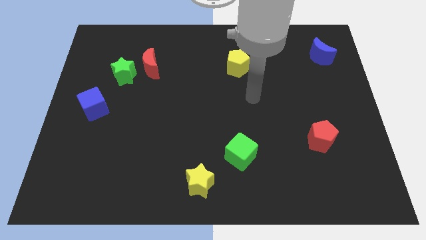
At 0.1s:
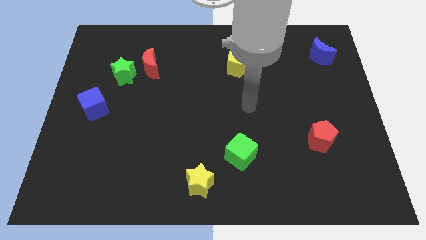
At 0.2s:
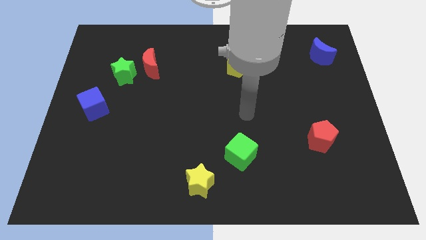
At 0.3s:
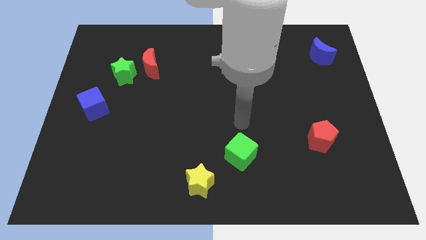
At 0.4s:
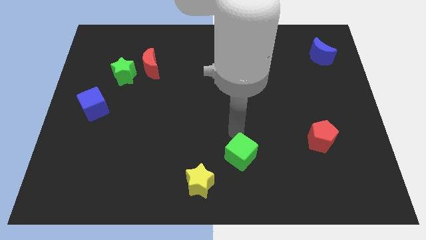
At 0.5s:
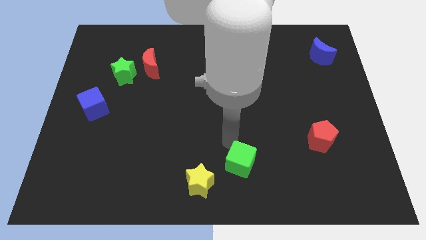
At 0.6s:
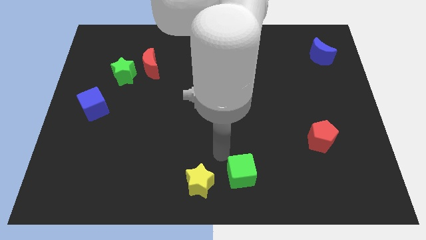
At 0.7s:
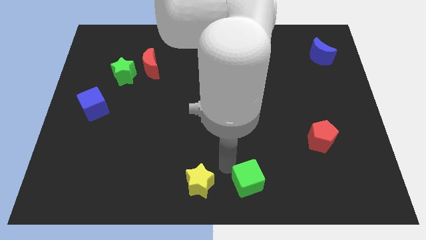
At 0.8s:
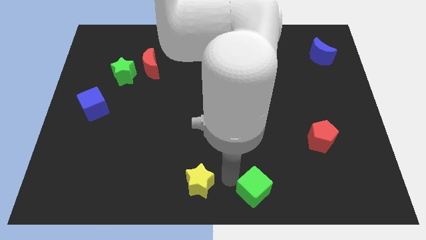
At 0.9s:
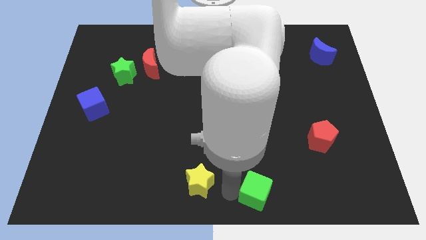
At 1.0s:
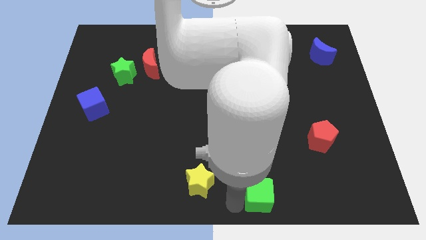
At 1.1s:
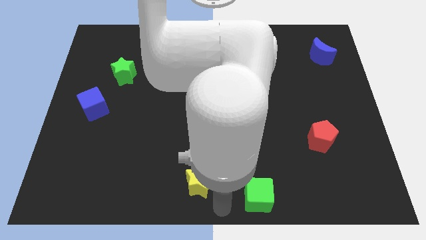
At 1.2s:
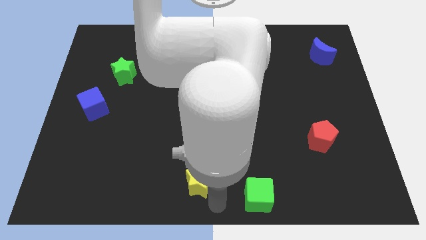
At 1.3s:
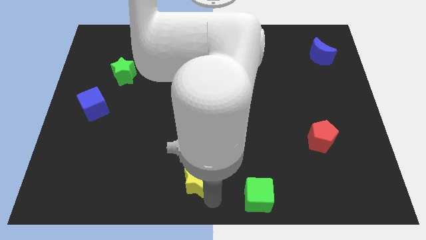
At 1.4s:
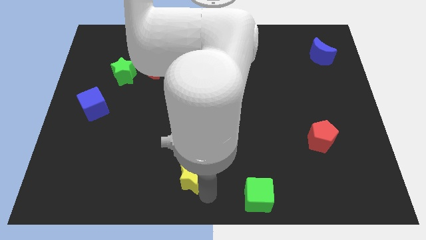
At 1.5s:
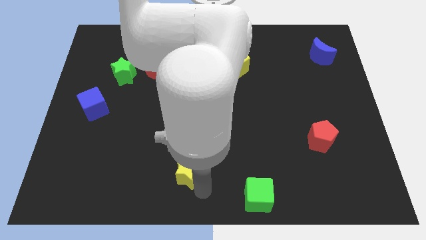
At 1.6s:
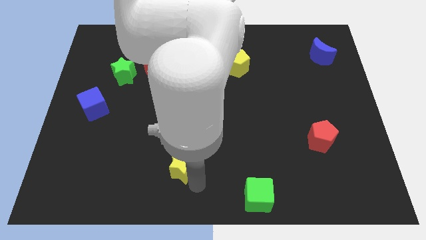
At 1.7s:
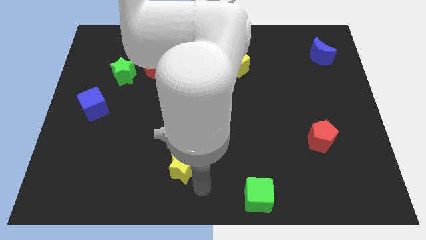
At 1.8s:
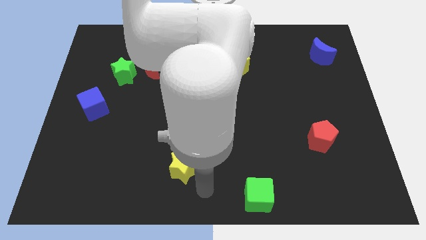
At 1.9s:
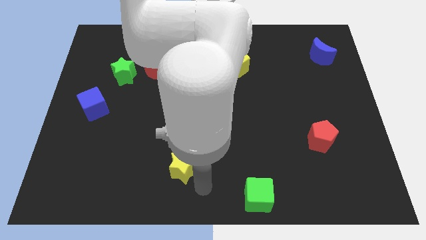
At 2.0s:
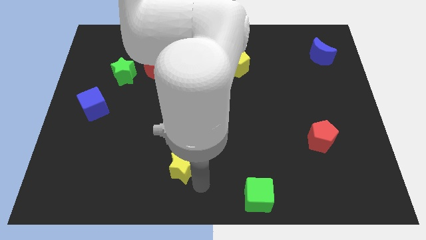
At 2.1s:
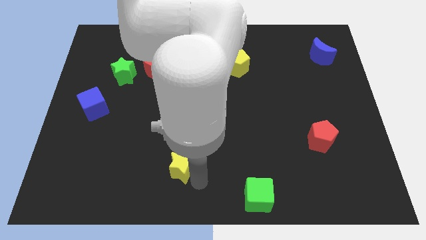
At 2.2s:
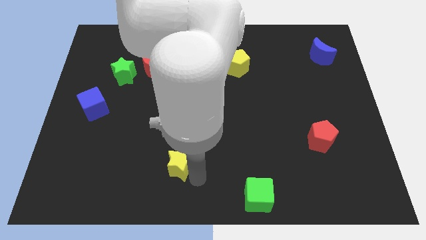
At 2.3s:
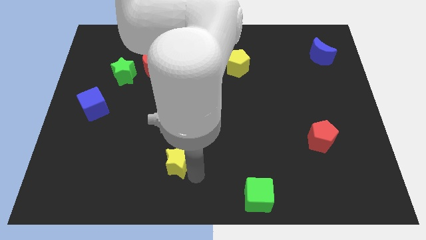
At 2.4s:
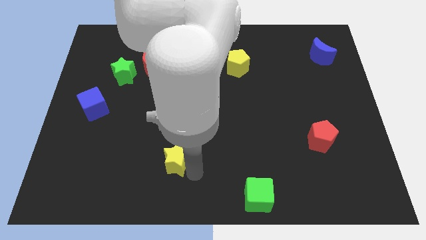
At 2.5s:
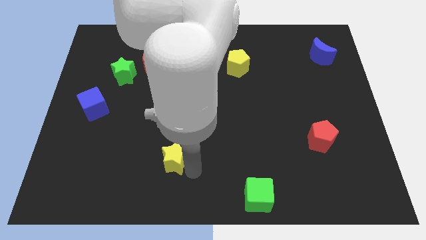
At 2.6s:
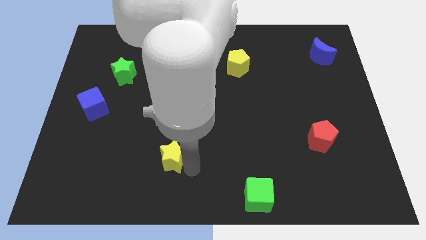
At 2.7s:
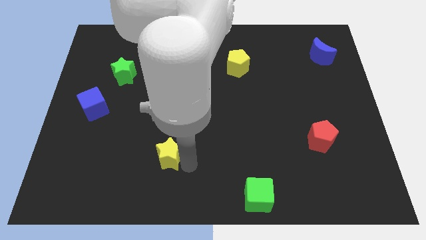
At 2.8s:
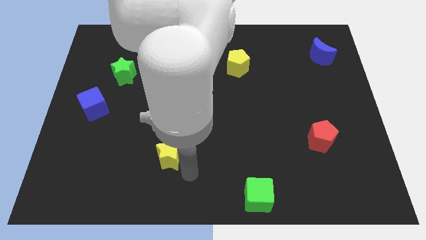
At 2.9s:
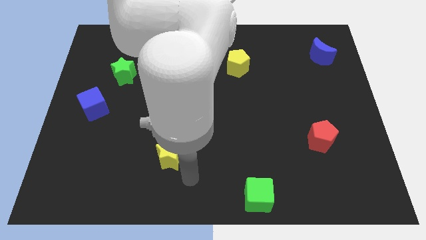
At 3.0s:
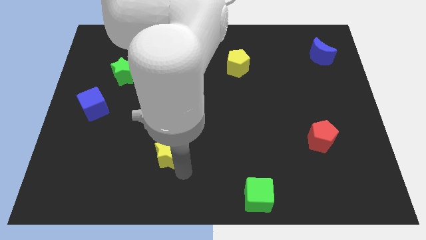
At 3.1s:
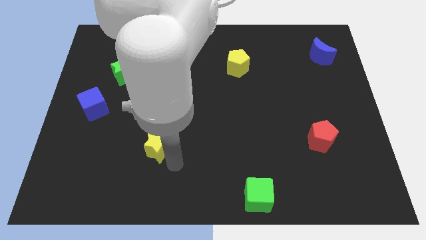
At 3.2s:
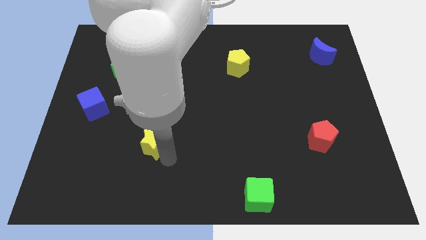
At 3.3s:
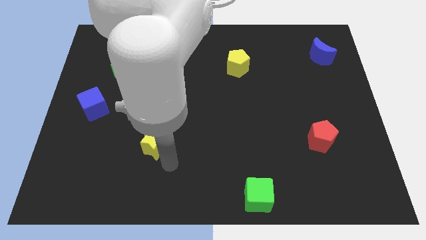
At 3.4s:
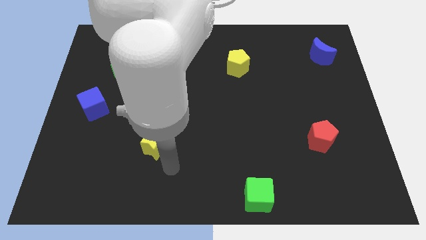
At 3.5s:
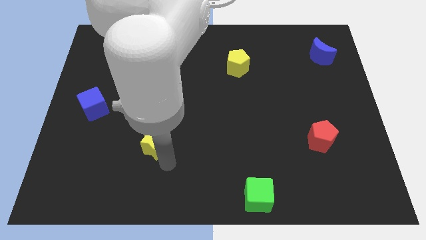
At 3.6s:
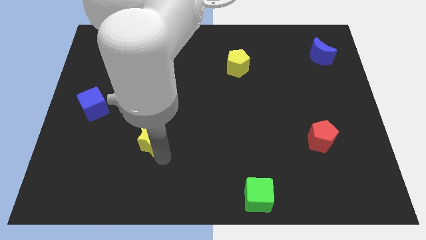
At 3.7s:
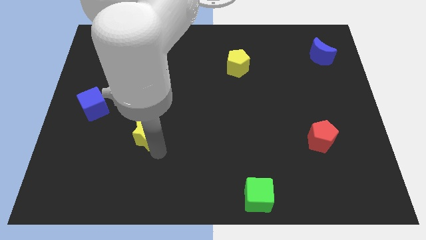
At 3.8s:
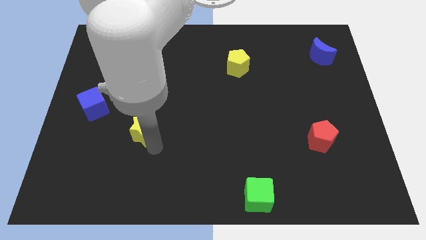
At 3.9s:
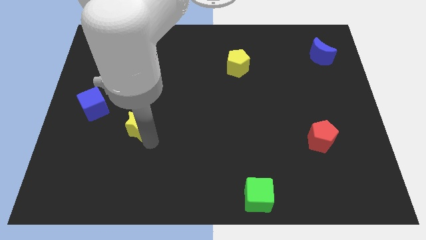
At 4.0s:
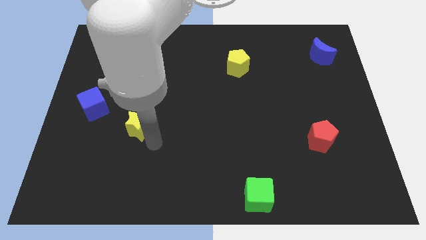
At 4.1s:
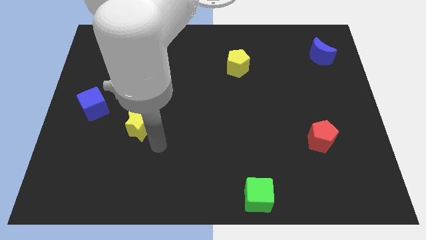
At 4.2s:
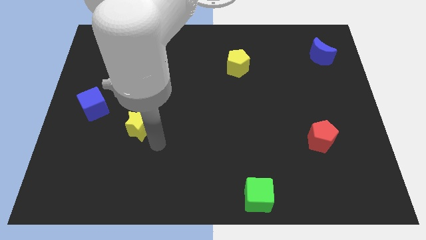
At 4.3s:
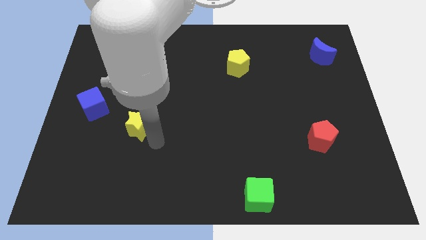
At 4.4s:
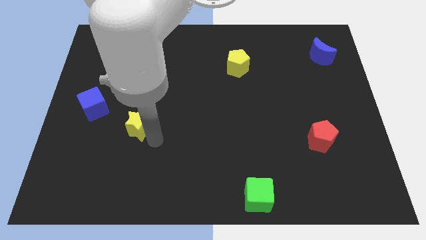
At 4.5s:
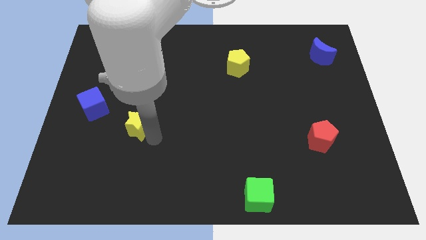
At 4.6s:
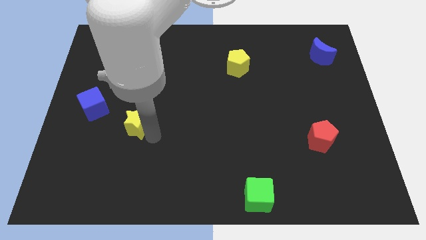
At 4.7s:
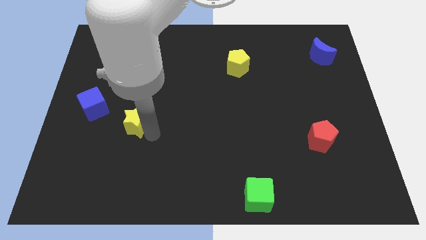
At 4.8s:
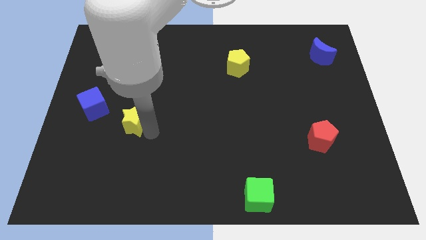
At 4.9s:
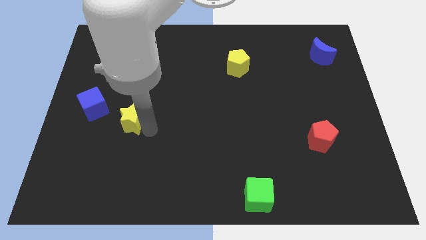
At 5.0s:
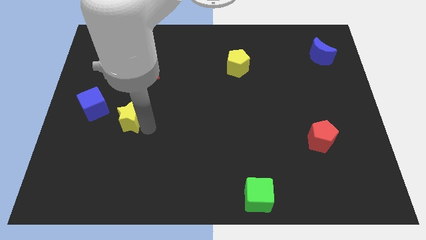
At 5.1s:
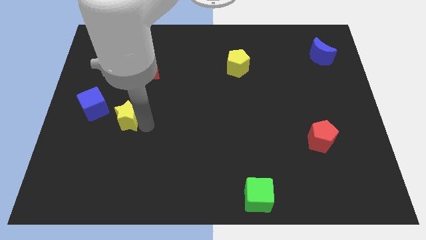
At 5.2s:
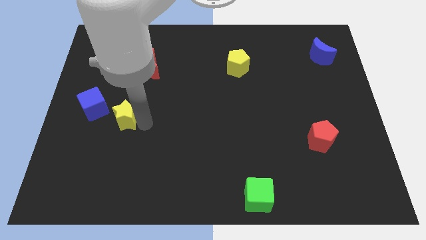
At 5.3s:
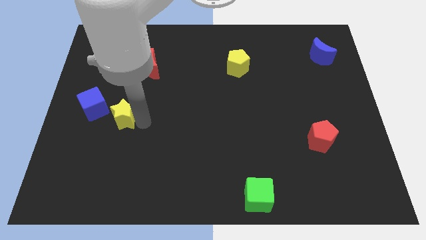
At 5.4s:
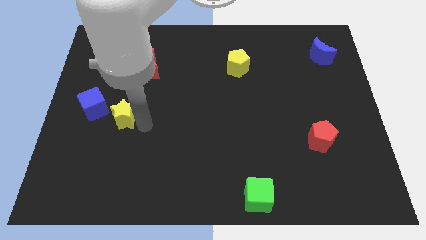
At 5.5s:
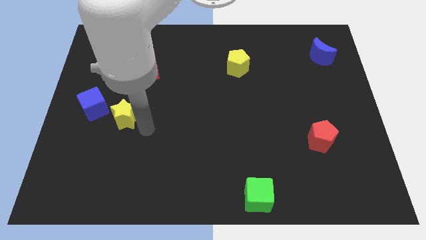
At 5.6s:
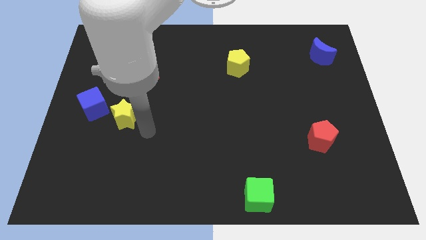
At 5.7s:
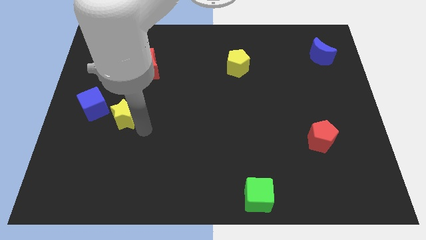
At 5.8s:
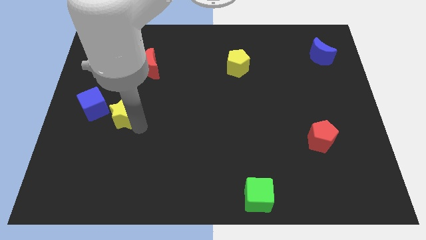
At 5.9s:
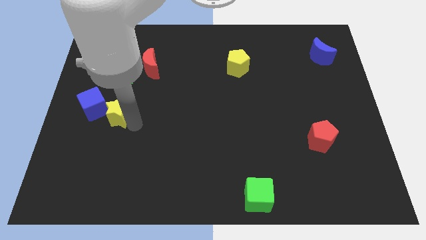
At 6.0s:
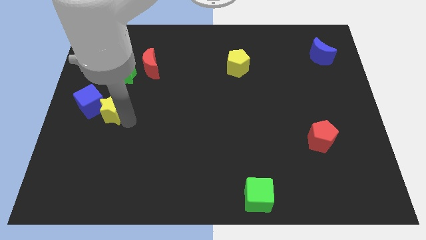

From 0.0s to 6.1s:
put the yellow star towards the blue cube
